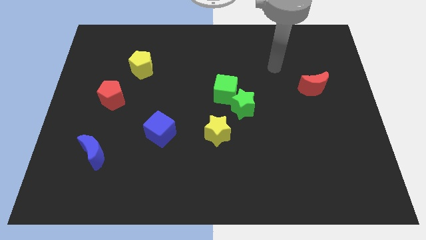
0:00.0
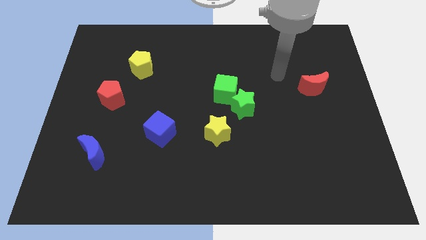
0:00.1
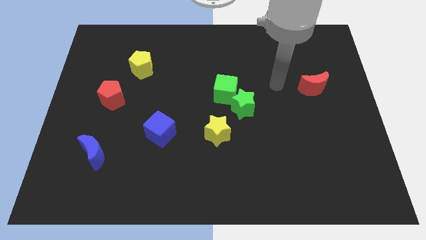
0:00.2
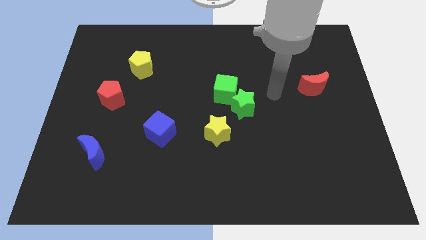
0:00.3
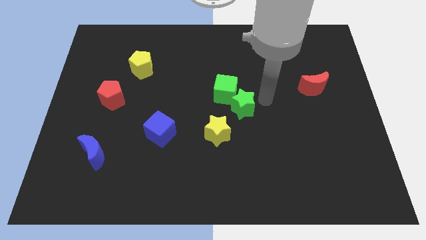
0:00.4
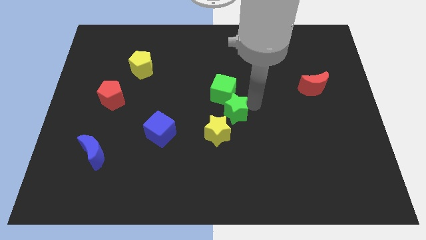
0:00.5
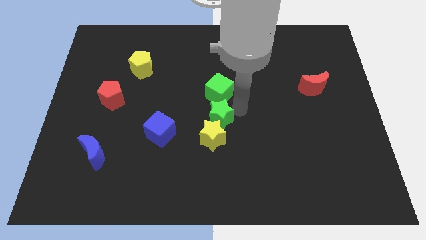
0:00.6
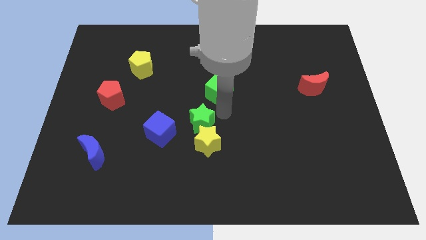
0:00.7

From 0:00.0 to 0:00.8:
move the green cube away from the green star

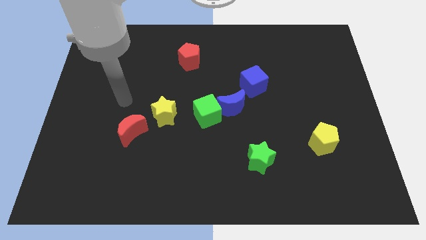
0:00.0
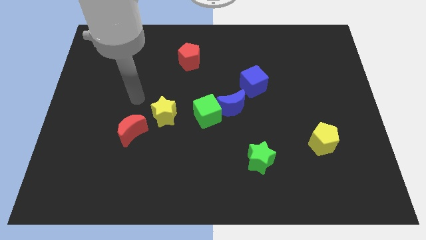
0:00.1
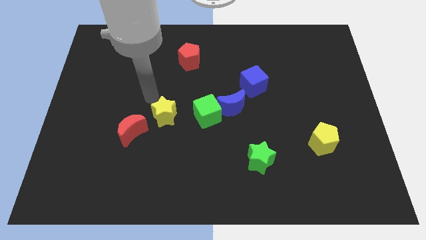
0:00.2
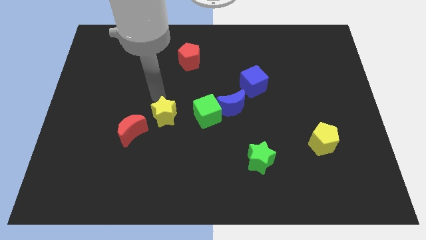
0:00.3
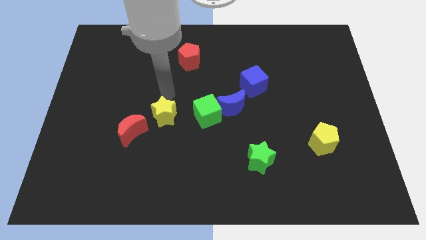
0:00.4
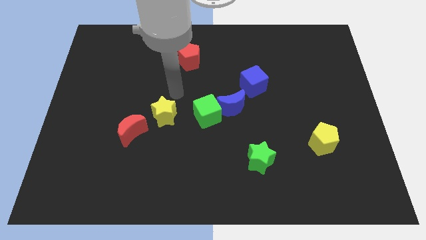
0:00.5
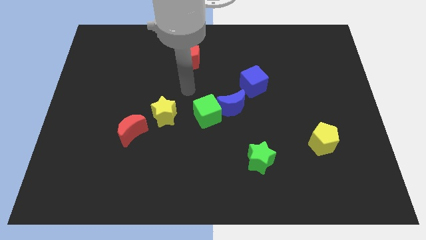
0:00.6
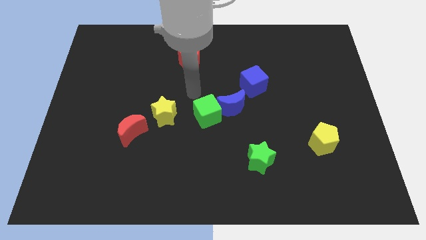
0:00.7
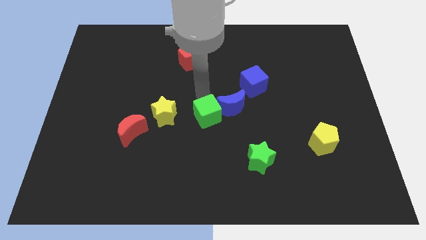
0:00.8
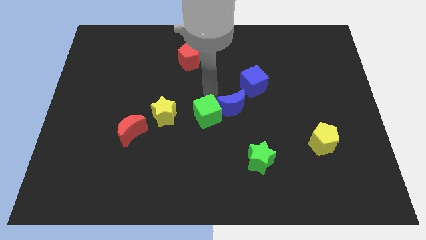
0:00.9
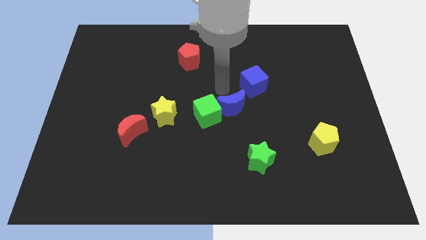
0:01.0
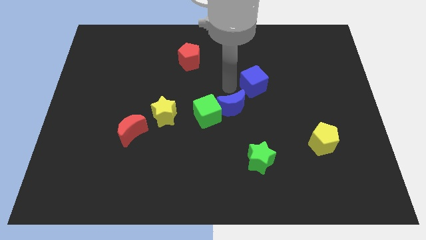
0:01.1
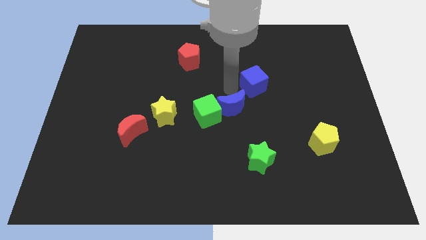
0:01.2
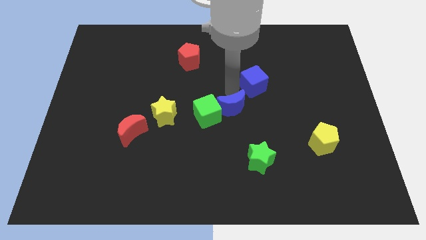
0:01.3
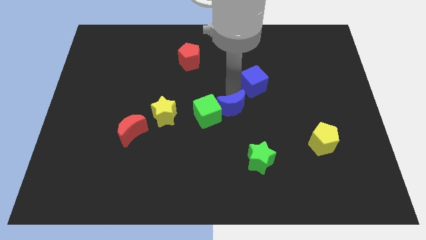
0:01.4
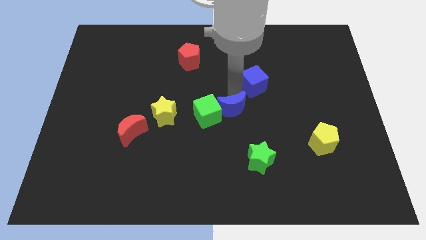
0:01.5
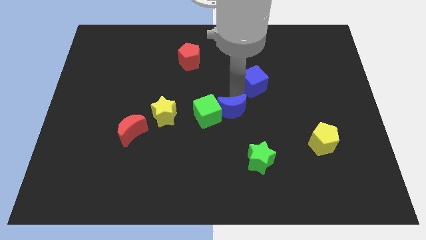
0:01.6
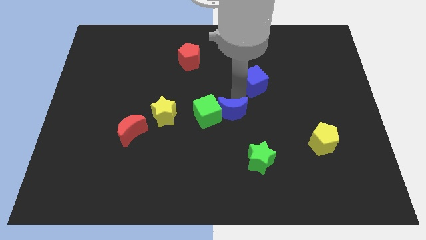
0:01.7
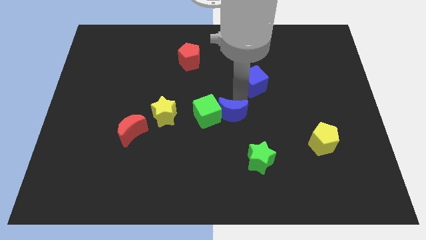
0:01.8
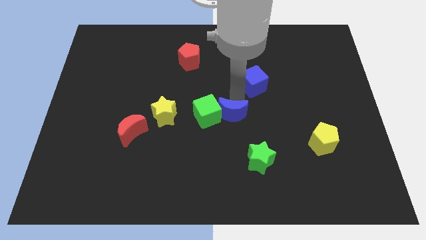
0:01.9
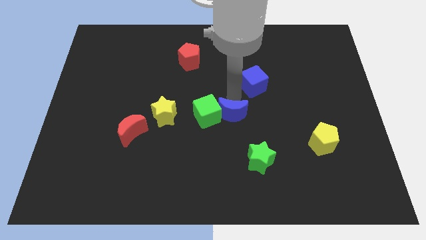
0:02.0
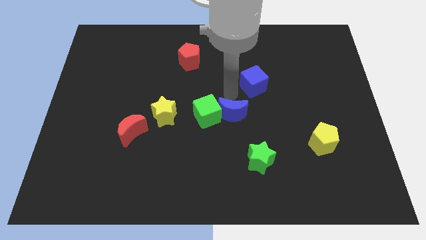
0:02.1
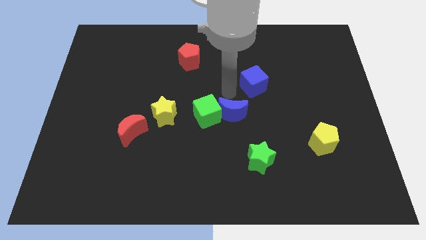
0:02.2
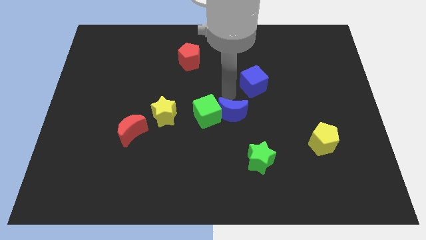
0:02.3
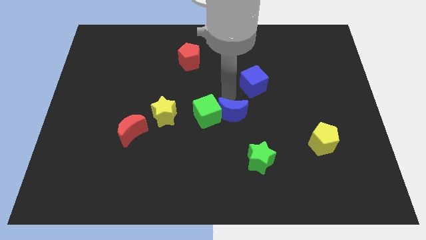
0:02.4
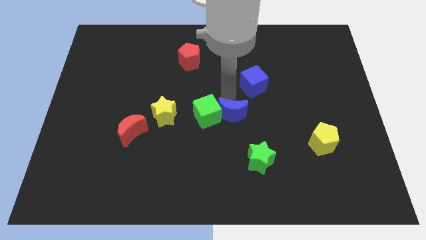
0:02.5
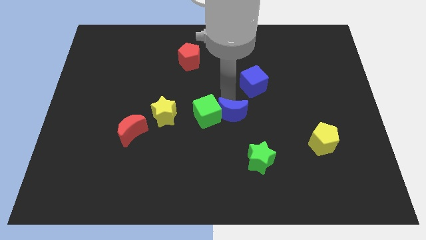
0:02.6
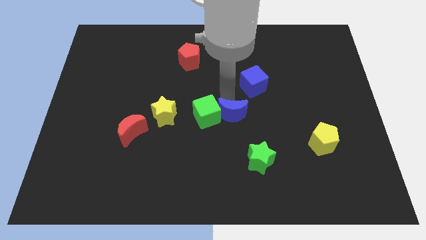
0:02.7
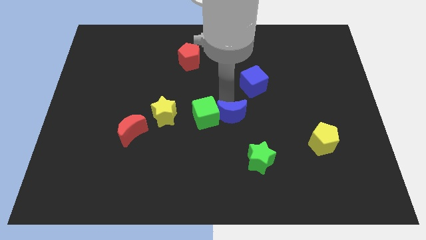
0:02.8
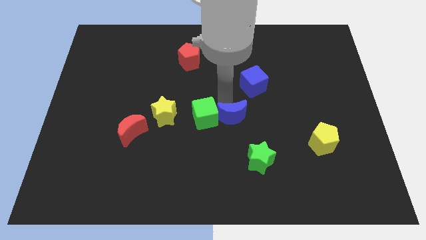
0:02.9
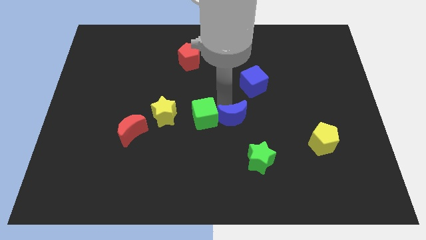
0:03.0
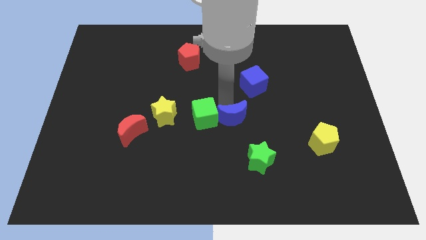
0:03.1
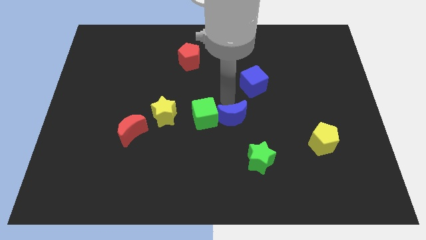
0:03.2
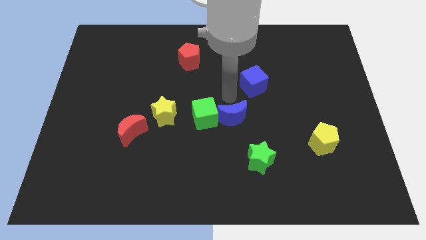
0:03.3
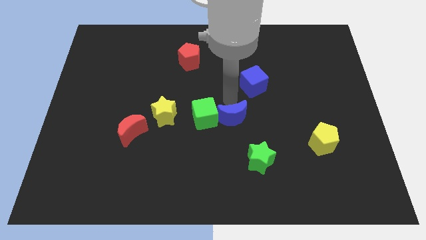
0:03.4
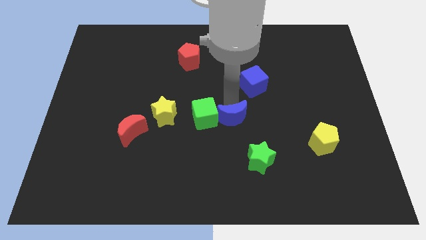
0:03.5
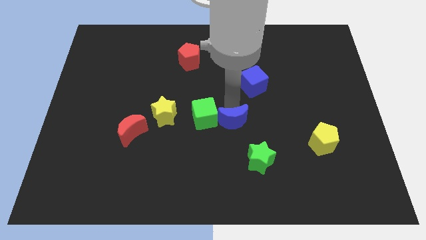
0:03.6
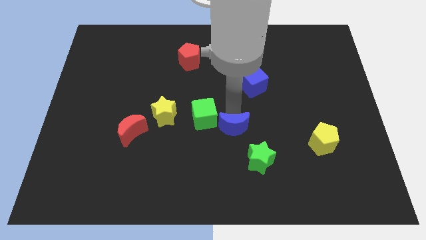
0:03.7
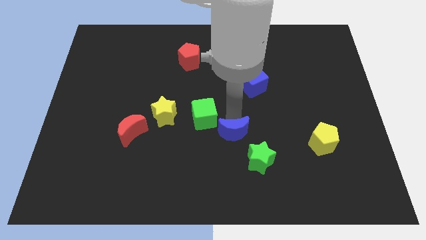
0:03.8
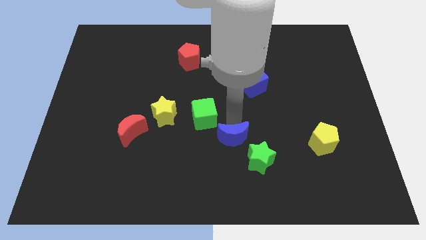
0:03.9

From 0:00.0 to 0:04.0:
move the blue moon away from the green cube and blue cube

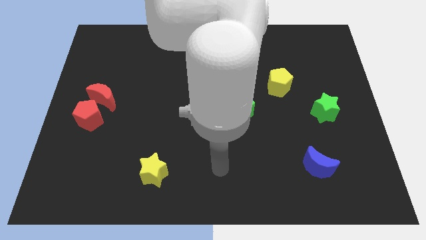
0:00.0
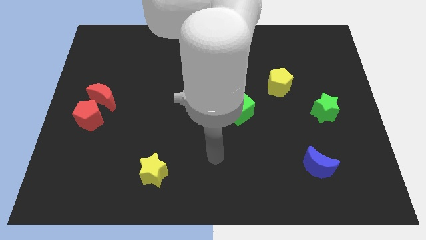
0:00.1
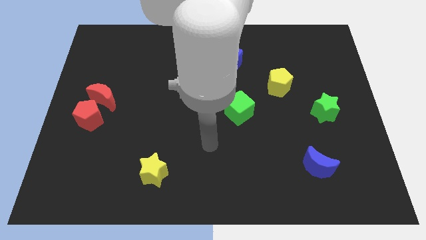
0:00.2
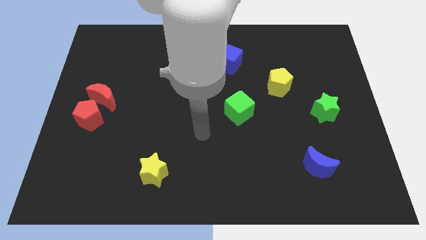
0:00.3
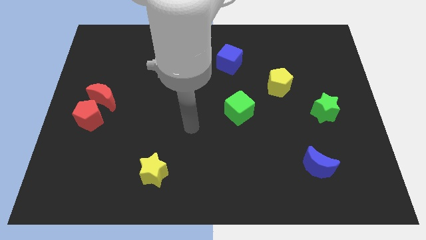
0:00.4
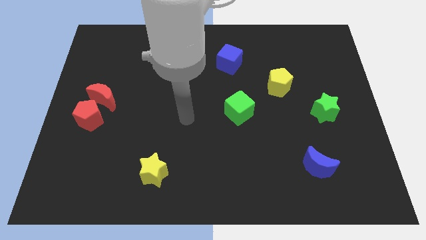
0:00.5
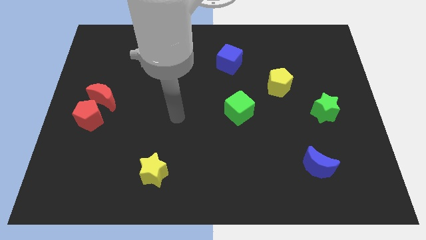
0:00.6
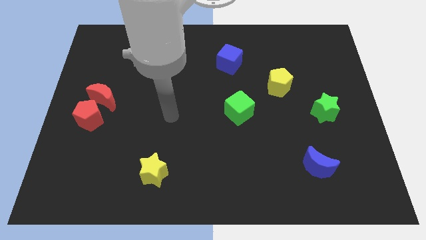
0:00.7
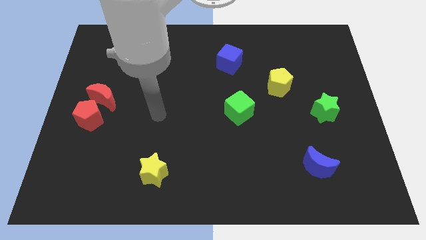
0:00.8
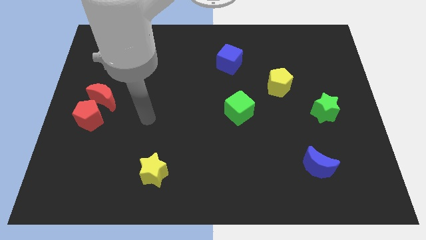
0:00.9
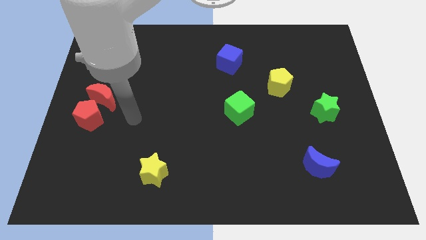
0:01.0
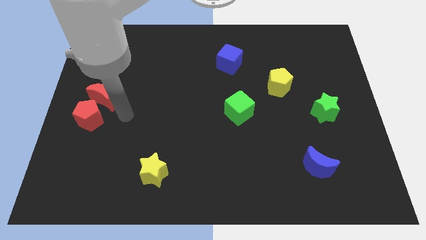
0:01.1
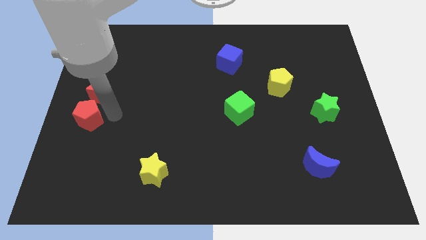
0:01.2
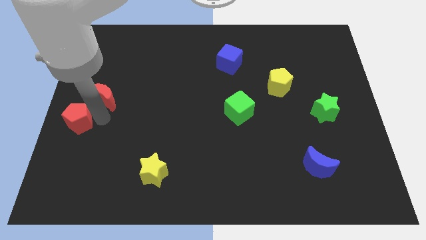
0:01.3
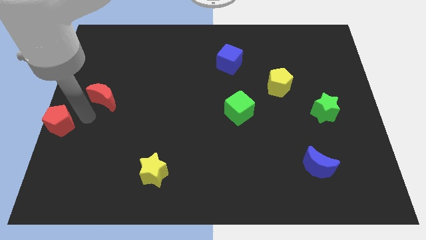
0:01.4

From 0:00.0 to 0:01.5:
pull the red moon apart from the red pentagon

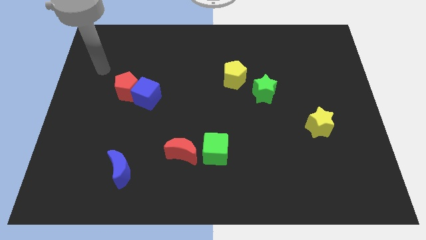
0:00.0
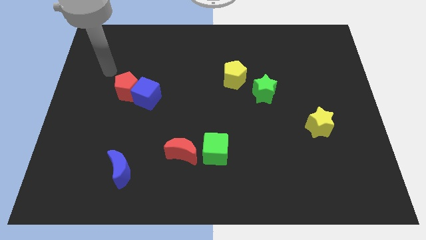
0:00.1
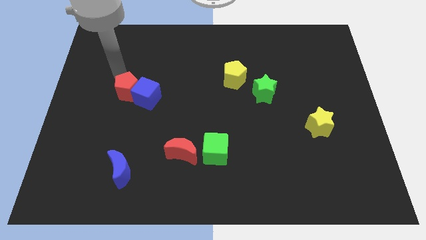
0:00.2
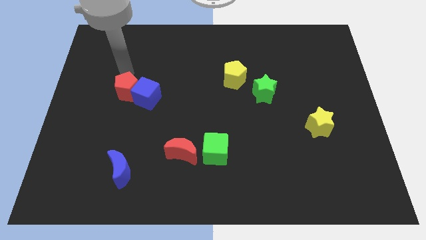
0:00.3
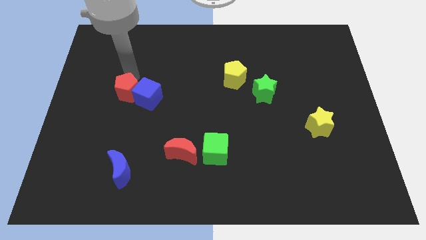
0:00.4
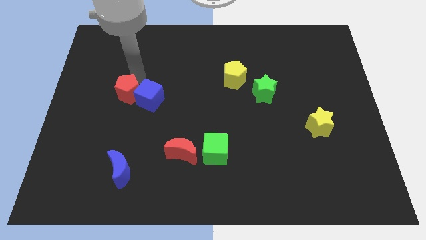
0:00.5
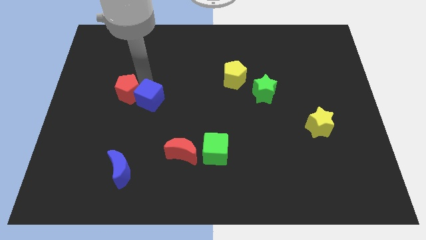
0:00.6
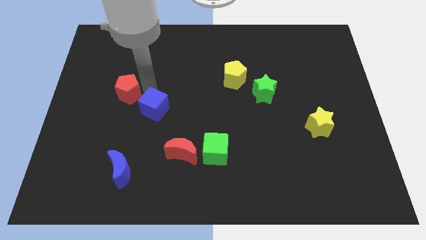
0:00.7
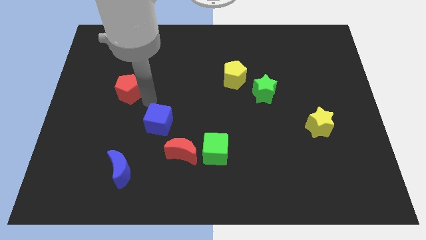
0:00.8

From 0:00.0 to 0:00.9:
separate the red pentagon from the blue cube

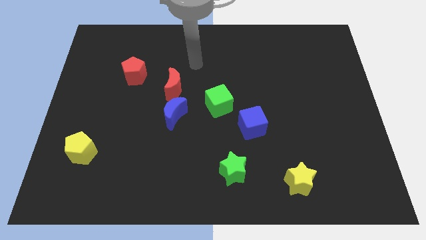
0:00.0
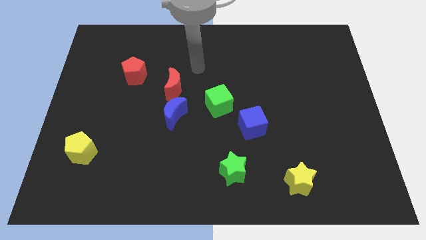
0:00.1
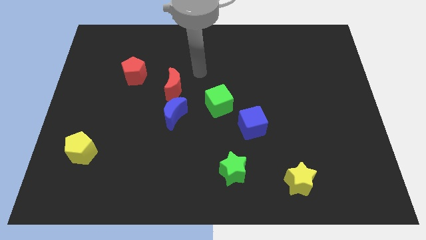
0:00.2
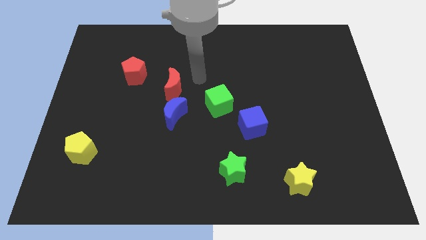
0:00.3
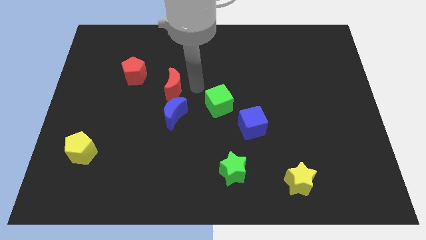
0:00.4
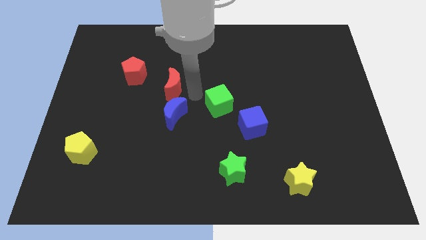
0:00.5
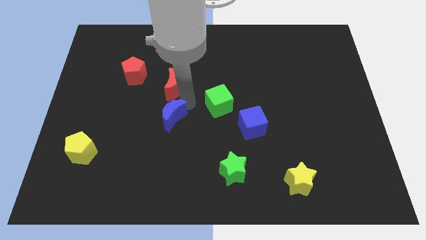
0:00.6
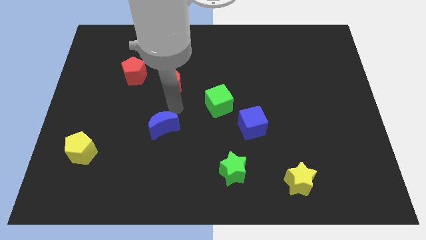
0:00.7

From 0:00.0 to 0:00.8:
separate the red moon from the blue moon

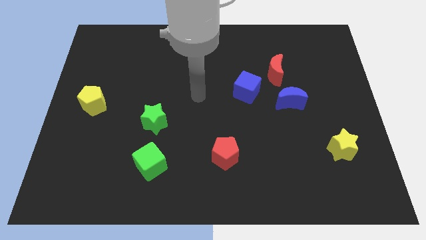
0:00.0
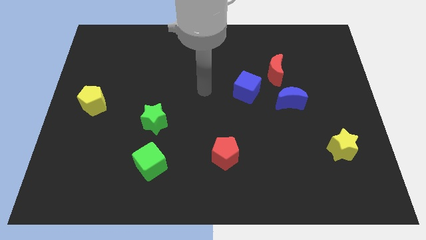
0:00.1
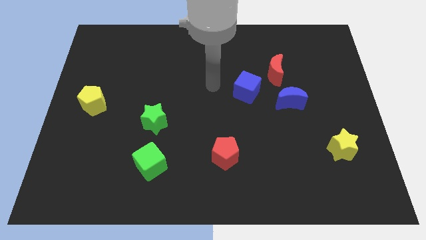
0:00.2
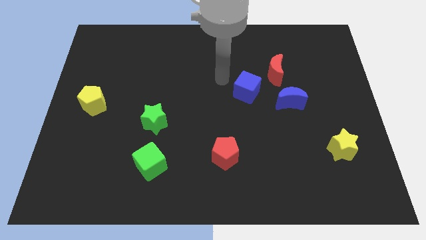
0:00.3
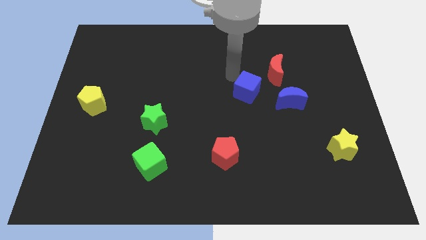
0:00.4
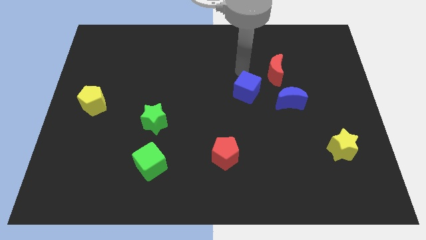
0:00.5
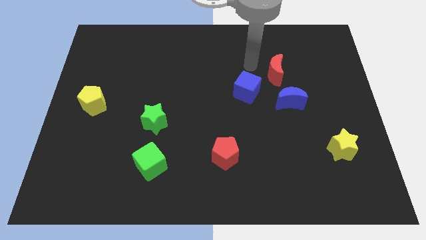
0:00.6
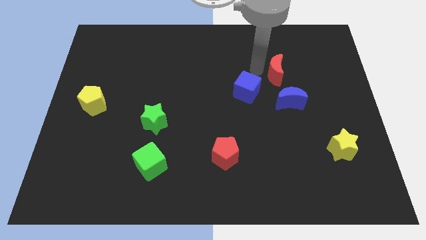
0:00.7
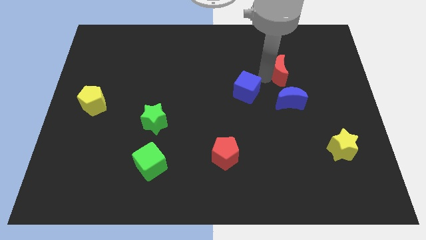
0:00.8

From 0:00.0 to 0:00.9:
separate the blue cube from the red moon

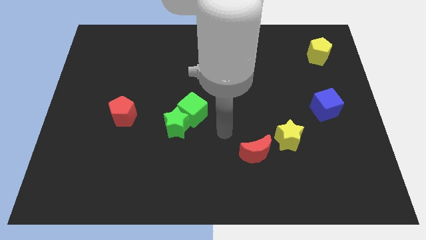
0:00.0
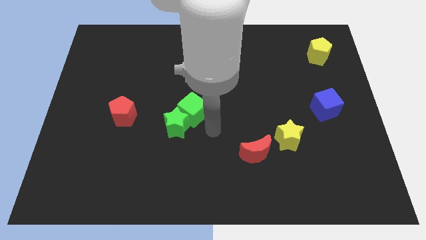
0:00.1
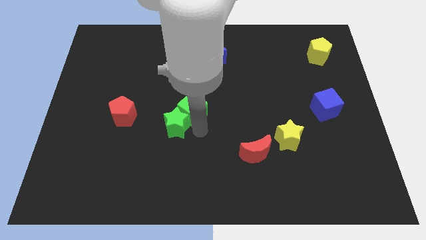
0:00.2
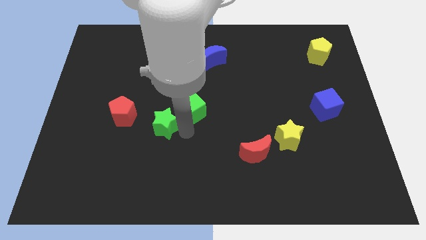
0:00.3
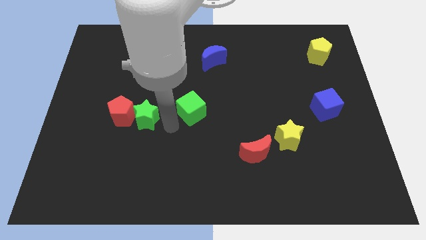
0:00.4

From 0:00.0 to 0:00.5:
pull the green cube apart from the green star
